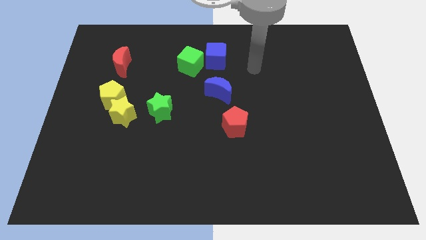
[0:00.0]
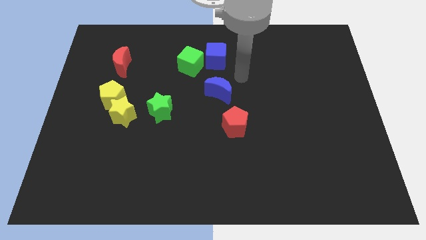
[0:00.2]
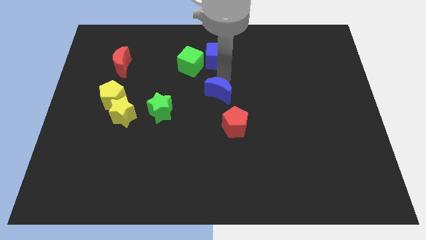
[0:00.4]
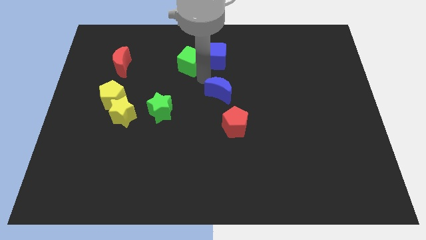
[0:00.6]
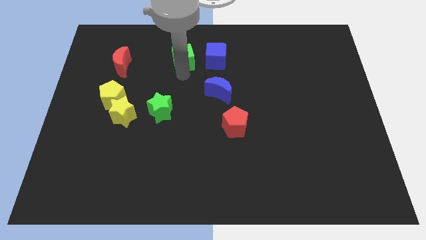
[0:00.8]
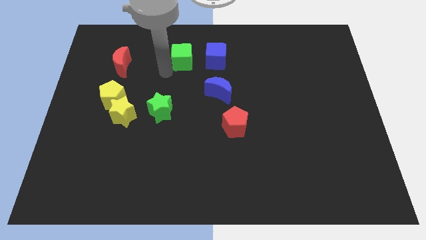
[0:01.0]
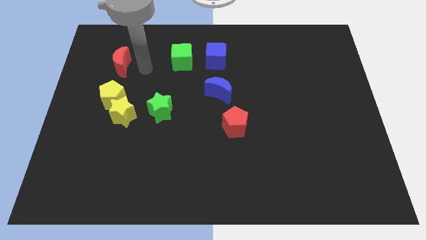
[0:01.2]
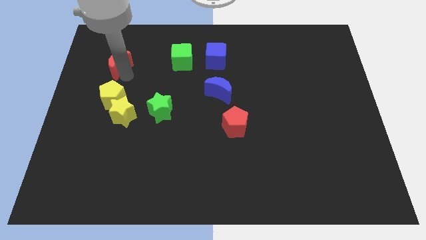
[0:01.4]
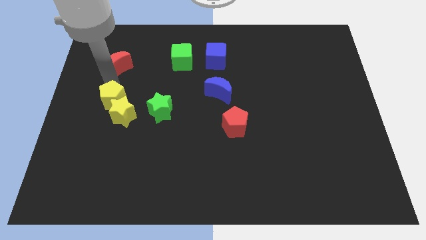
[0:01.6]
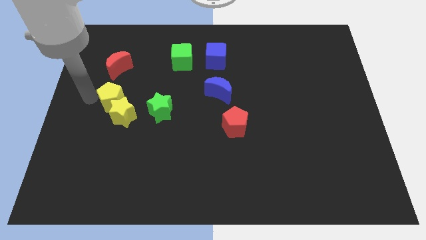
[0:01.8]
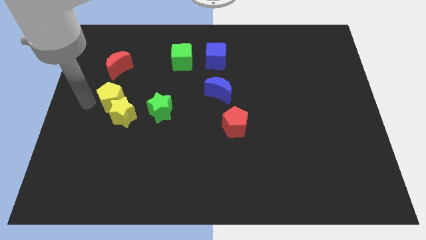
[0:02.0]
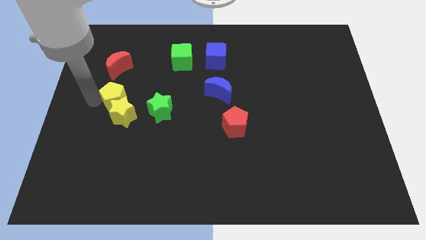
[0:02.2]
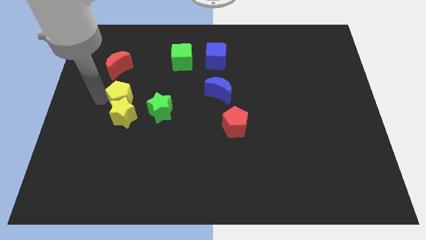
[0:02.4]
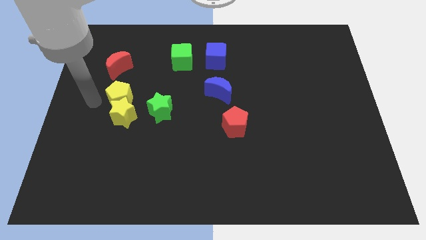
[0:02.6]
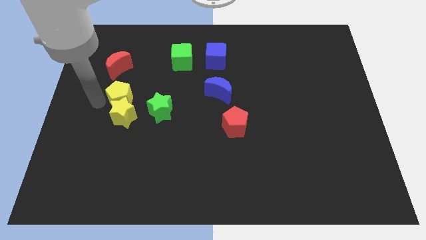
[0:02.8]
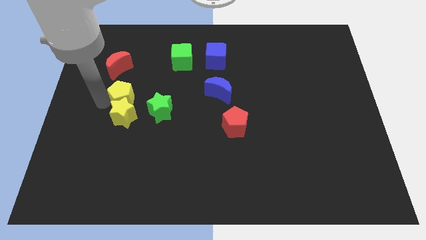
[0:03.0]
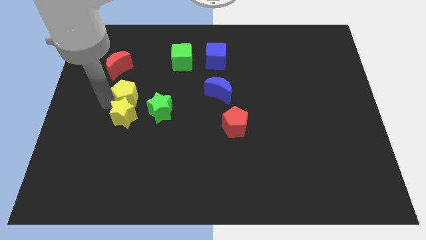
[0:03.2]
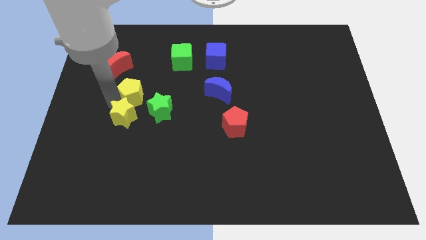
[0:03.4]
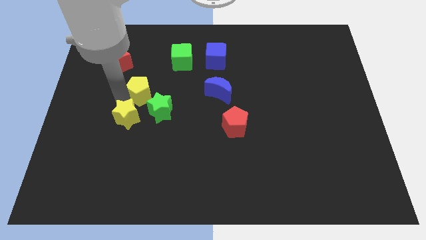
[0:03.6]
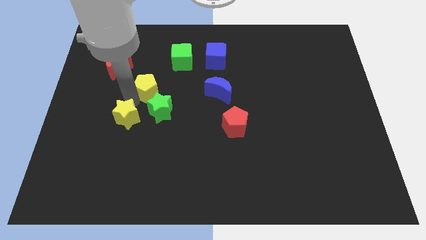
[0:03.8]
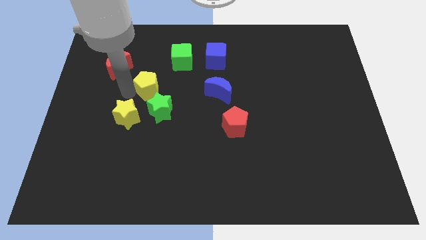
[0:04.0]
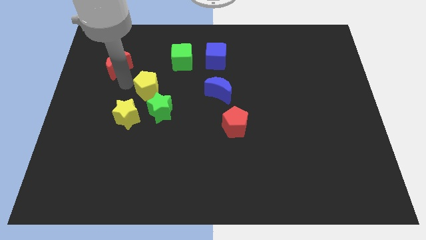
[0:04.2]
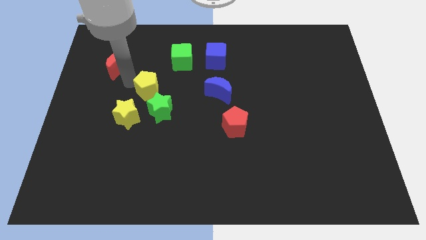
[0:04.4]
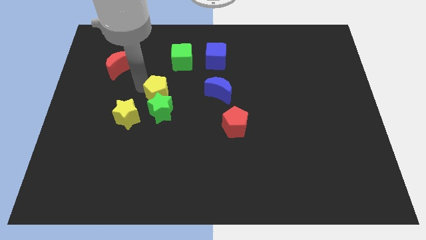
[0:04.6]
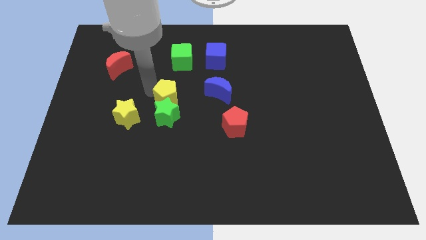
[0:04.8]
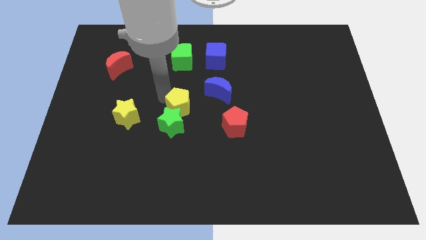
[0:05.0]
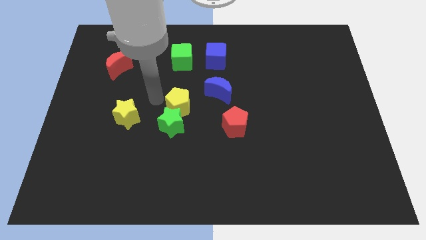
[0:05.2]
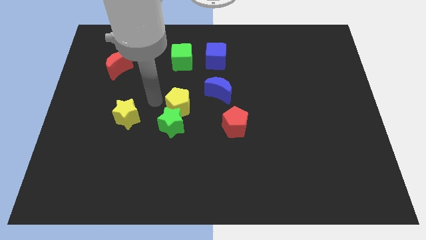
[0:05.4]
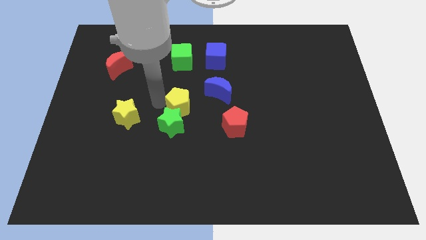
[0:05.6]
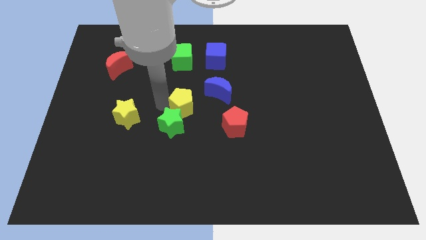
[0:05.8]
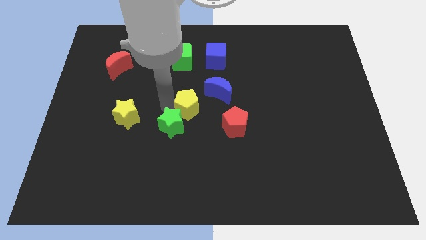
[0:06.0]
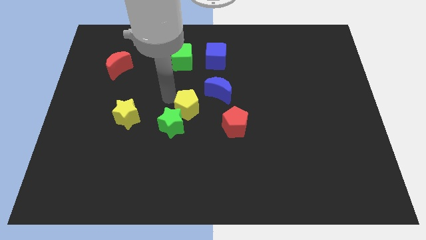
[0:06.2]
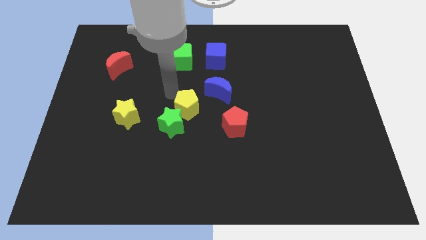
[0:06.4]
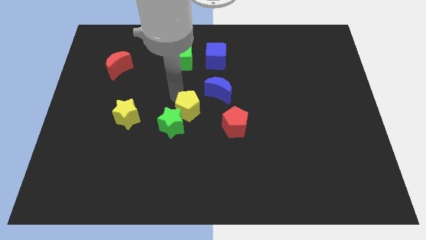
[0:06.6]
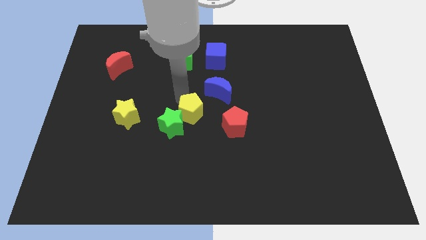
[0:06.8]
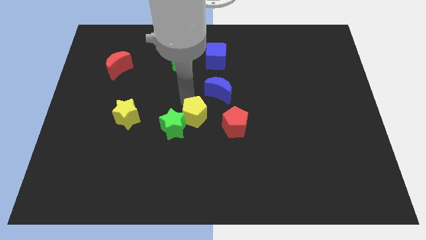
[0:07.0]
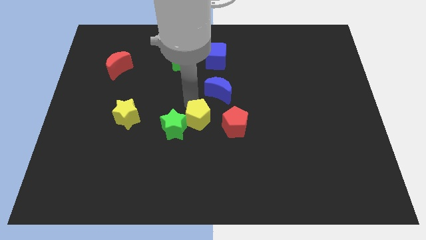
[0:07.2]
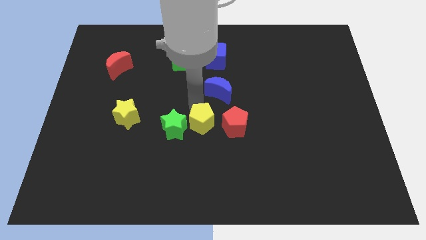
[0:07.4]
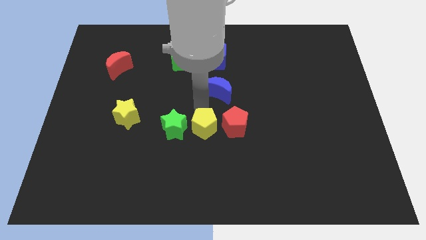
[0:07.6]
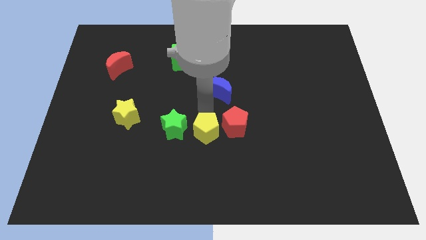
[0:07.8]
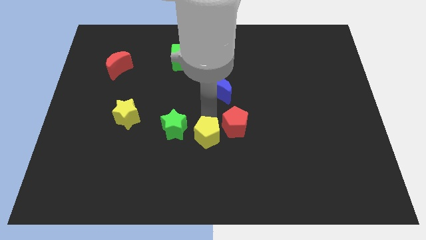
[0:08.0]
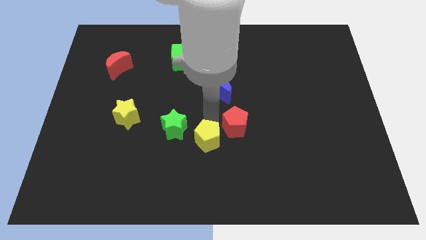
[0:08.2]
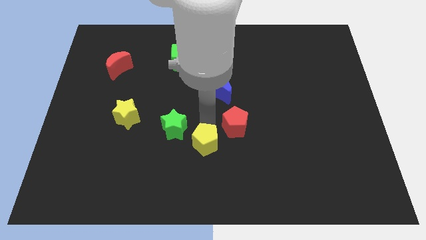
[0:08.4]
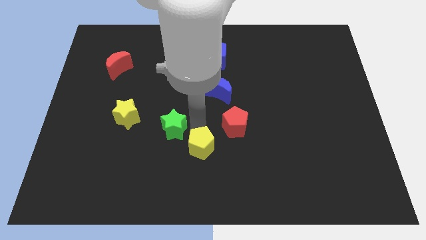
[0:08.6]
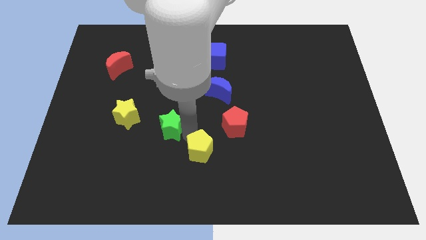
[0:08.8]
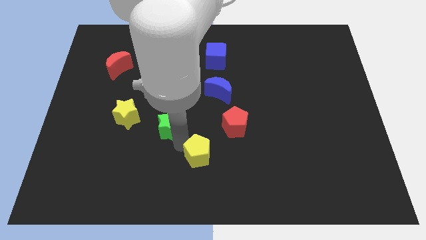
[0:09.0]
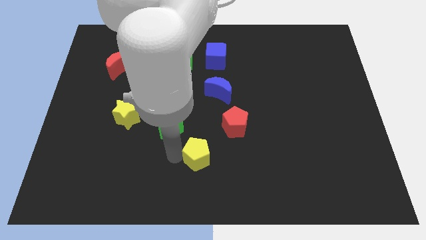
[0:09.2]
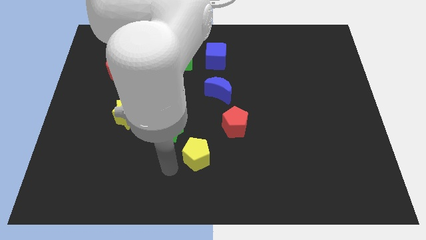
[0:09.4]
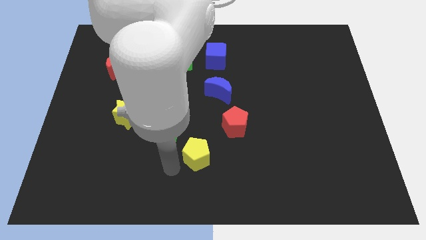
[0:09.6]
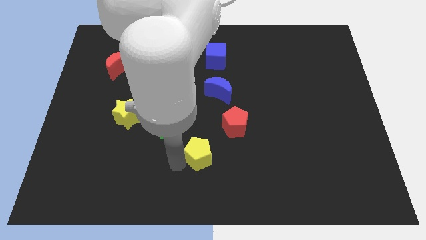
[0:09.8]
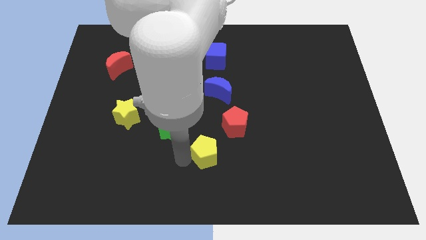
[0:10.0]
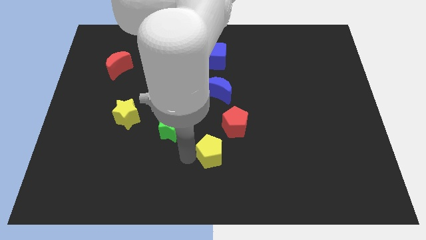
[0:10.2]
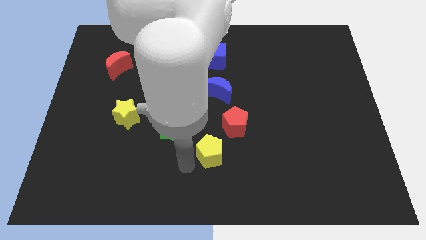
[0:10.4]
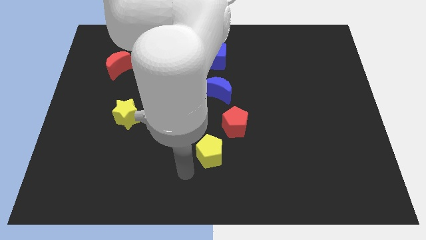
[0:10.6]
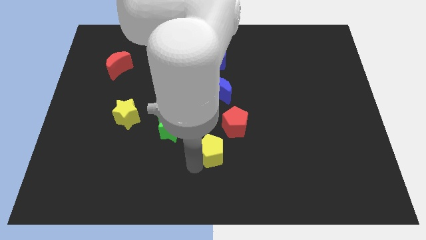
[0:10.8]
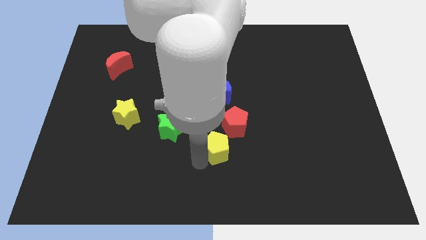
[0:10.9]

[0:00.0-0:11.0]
slide the yellow pentagon to the bottom of the red pentagon
